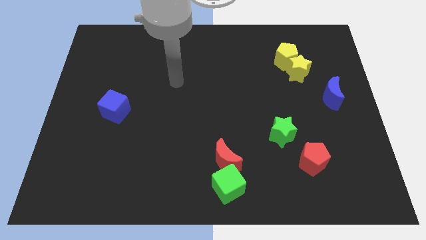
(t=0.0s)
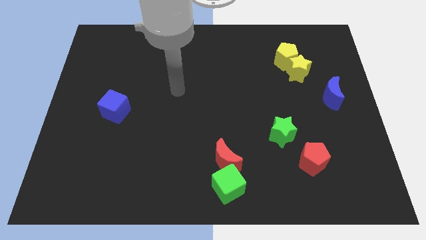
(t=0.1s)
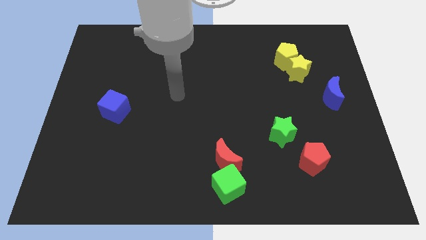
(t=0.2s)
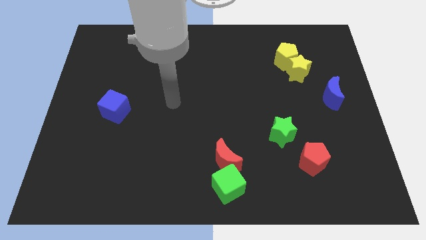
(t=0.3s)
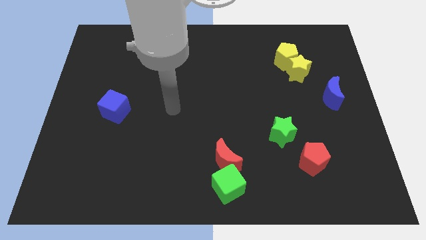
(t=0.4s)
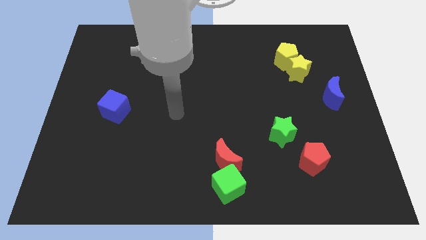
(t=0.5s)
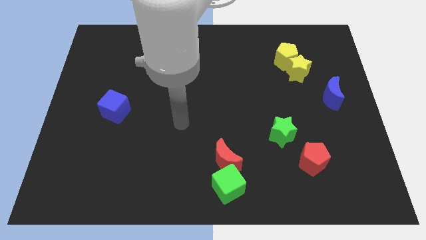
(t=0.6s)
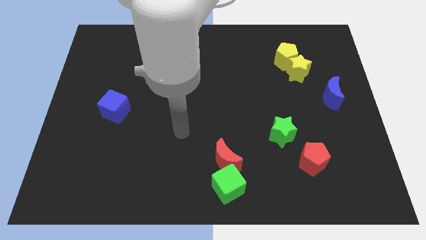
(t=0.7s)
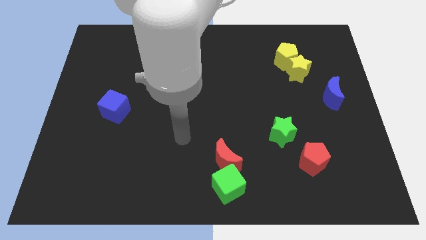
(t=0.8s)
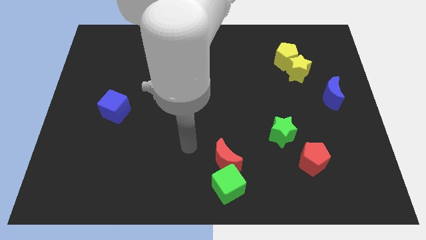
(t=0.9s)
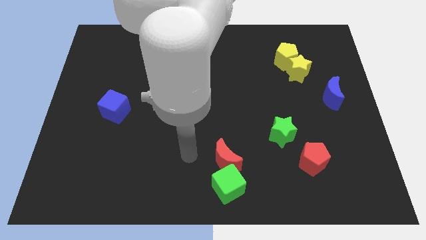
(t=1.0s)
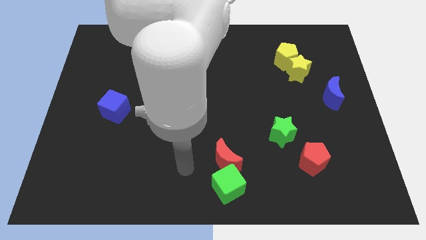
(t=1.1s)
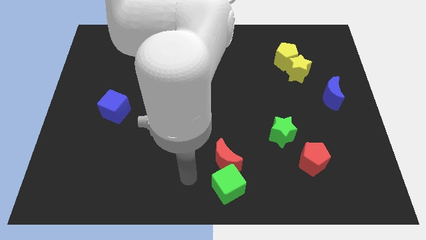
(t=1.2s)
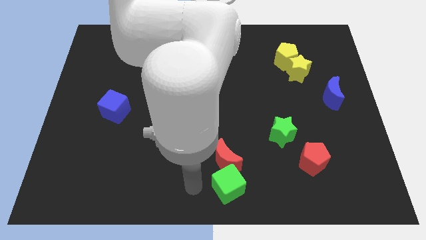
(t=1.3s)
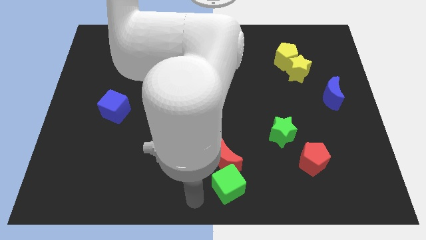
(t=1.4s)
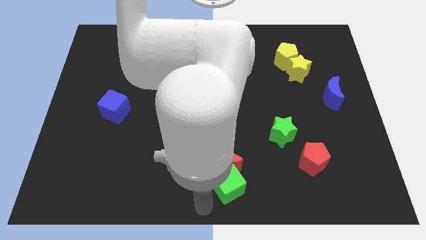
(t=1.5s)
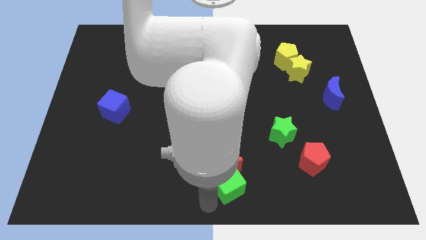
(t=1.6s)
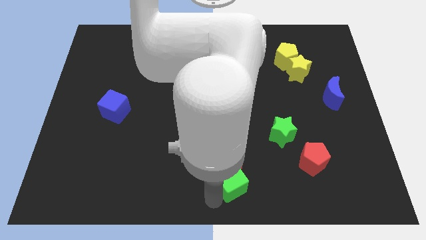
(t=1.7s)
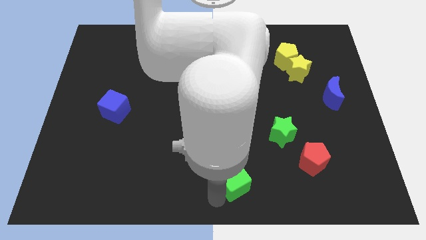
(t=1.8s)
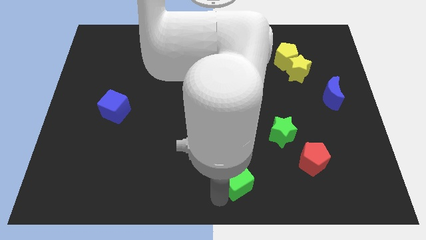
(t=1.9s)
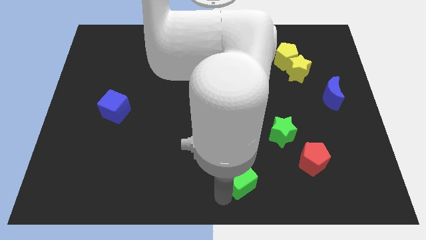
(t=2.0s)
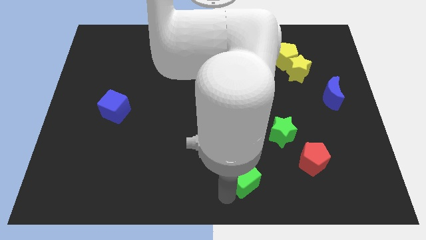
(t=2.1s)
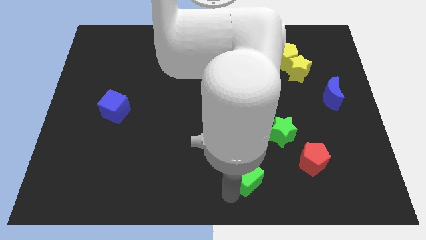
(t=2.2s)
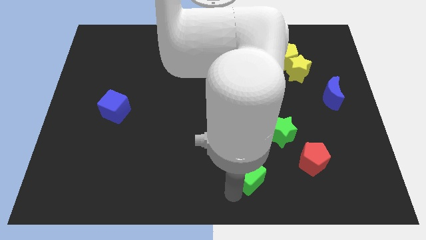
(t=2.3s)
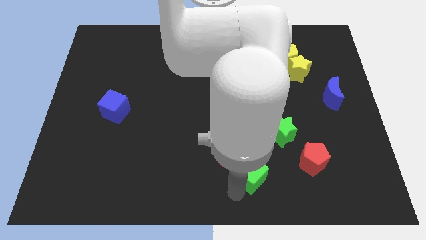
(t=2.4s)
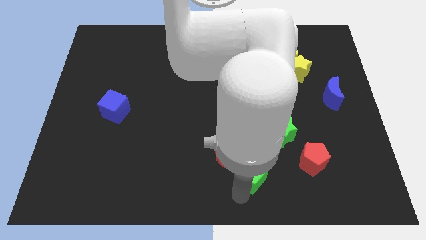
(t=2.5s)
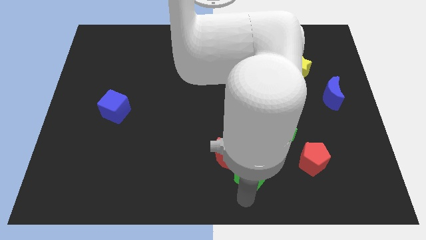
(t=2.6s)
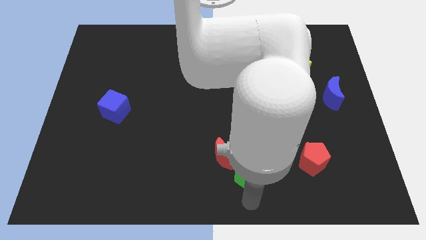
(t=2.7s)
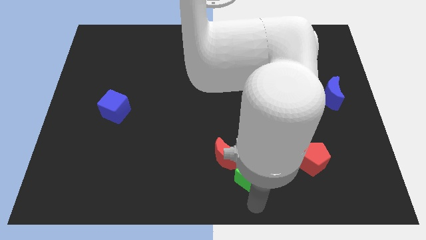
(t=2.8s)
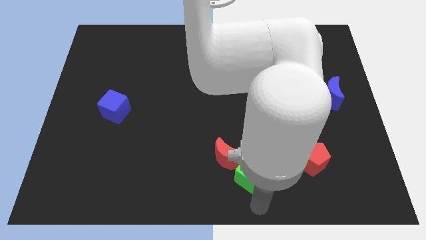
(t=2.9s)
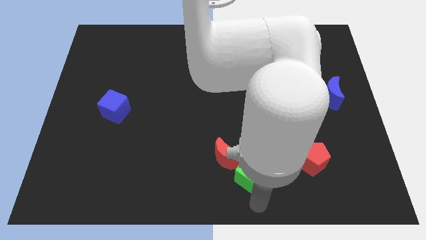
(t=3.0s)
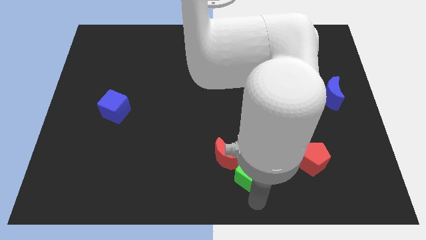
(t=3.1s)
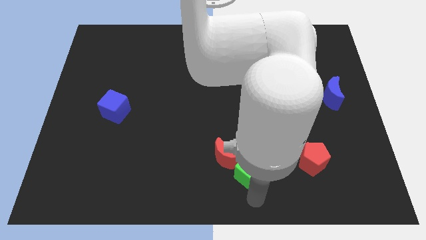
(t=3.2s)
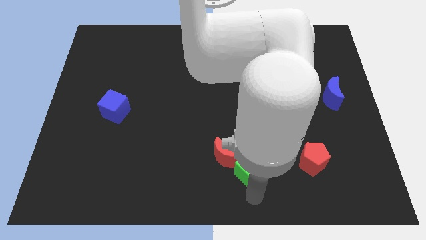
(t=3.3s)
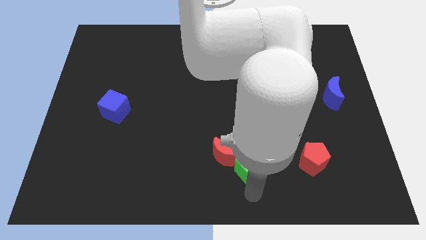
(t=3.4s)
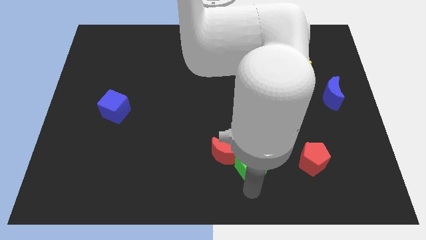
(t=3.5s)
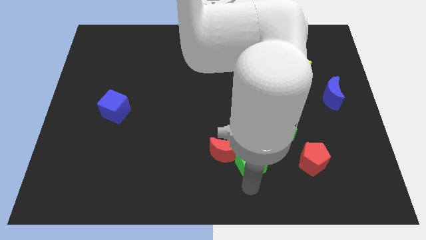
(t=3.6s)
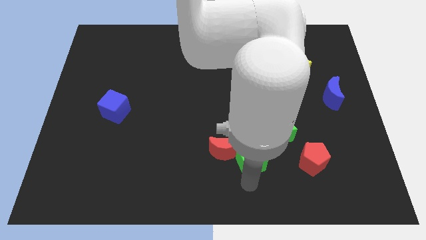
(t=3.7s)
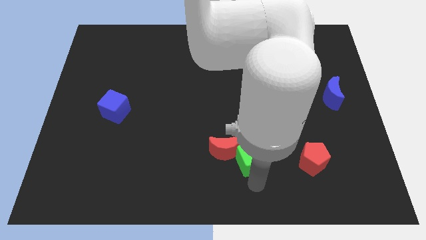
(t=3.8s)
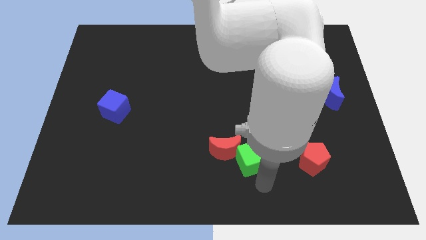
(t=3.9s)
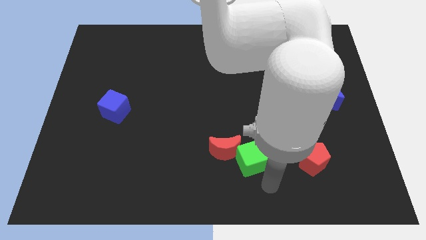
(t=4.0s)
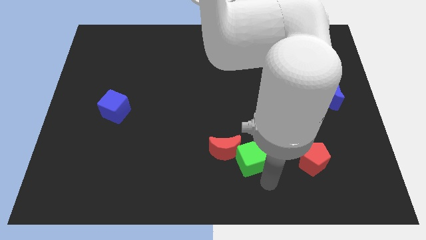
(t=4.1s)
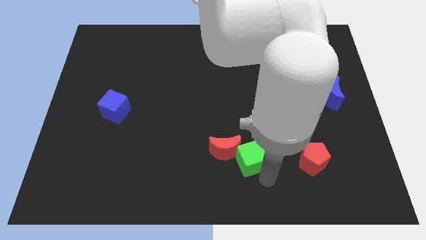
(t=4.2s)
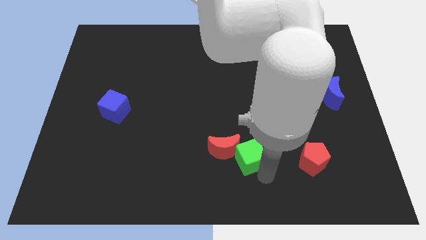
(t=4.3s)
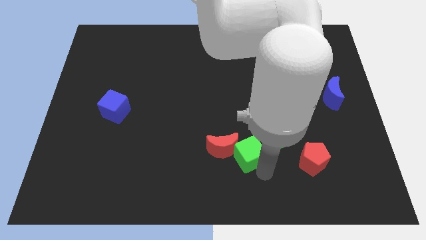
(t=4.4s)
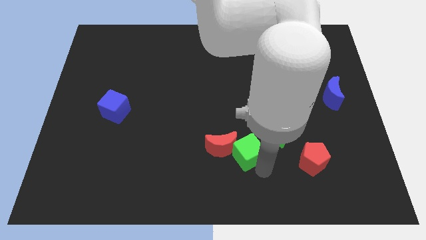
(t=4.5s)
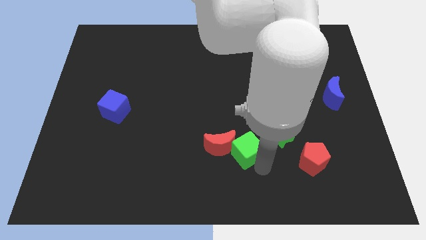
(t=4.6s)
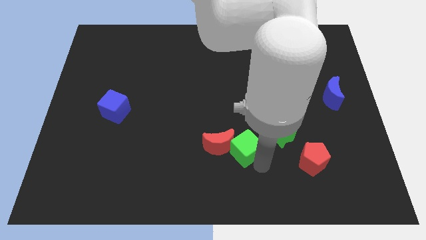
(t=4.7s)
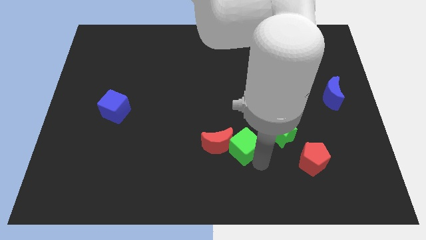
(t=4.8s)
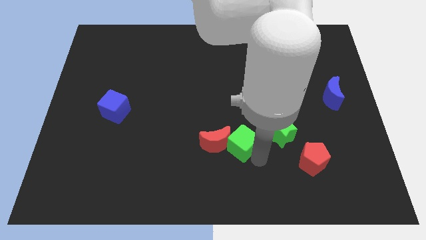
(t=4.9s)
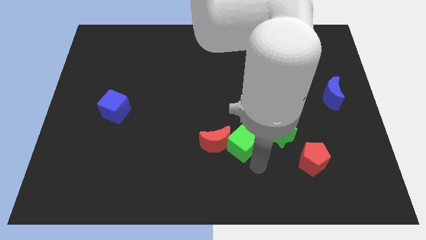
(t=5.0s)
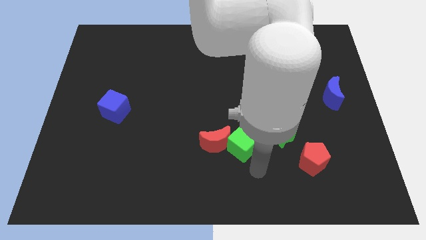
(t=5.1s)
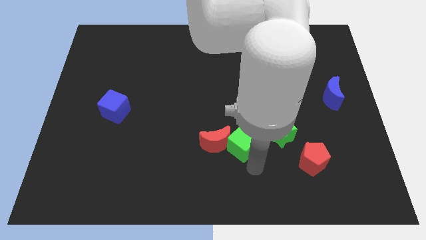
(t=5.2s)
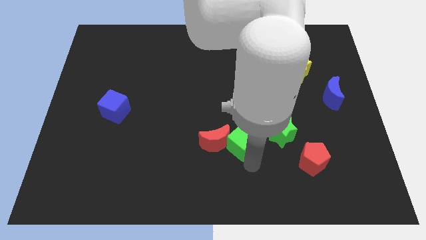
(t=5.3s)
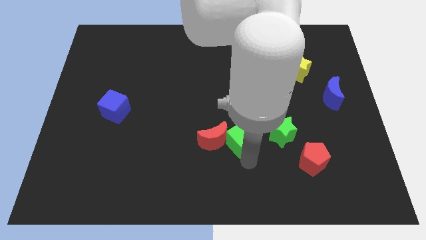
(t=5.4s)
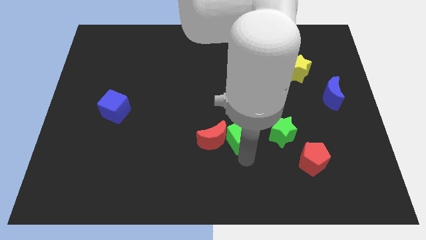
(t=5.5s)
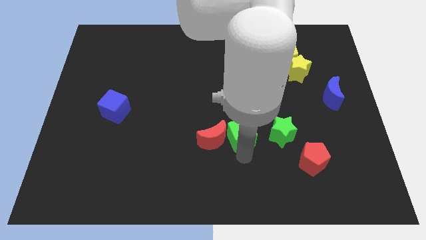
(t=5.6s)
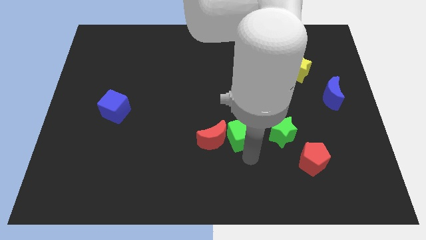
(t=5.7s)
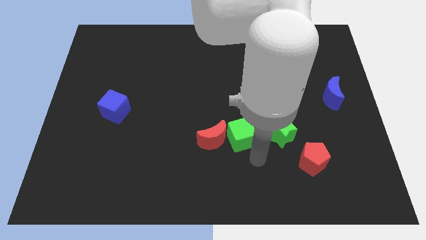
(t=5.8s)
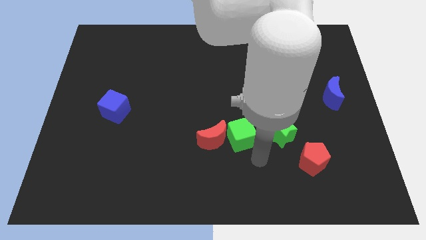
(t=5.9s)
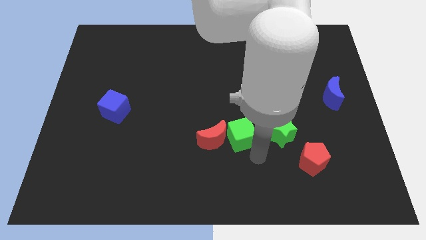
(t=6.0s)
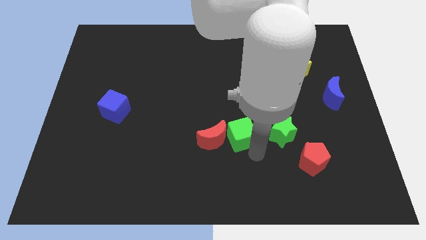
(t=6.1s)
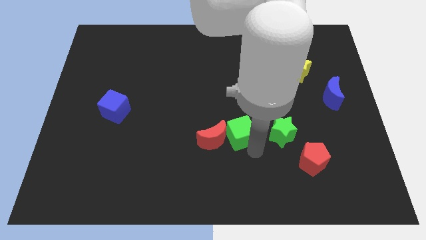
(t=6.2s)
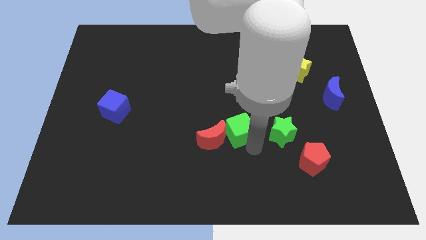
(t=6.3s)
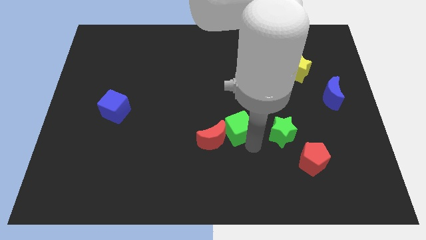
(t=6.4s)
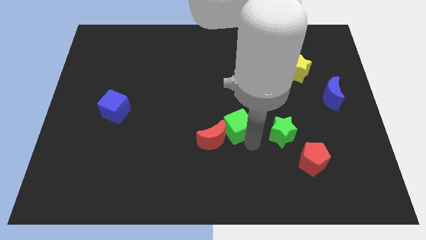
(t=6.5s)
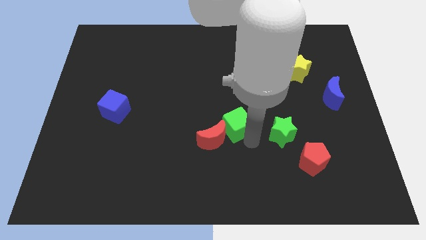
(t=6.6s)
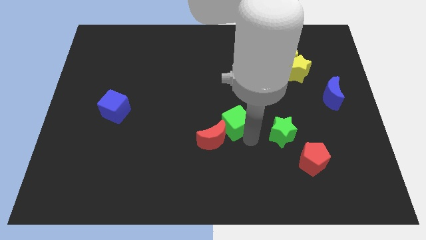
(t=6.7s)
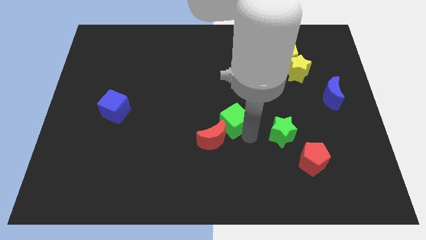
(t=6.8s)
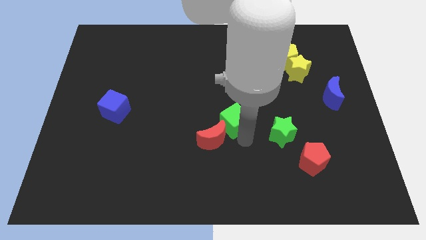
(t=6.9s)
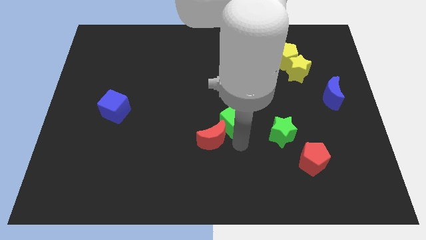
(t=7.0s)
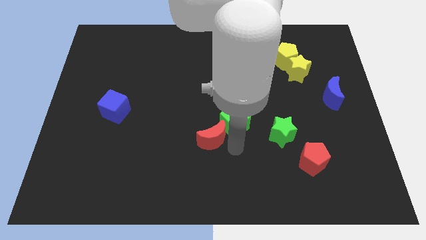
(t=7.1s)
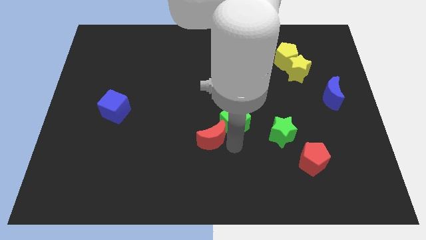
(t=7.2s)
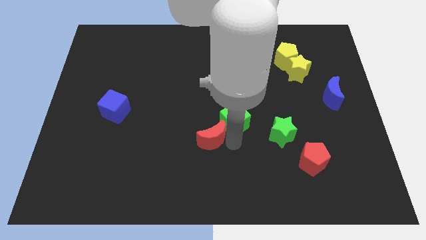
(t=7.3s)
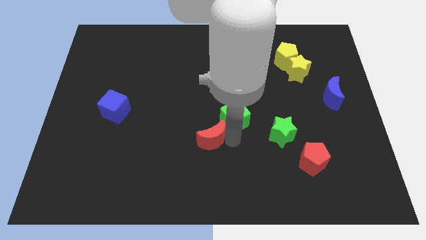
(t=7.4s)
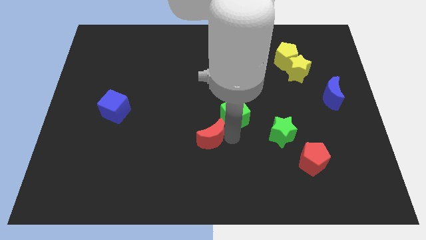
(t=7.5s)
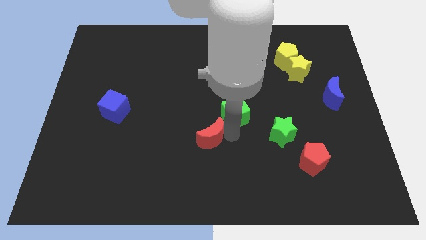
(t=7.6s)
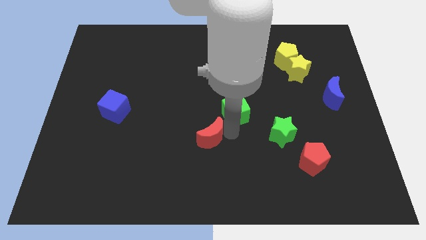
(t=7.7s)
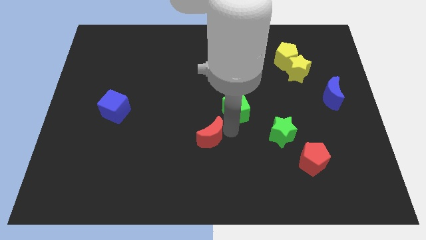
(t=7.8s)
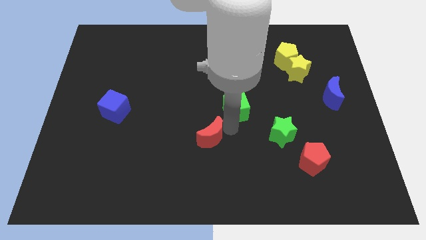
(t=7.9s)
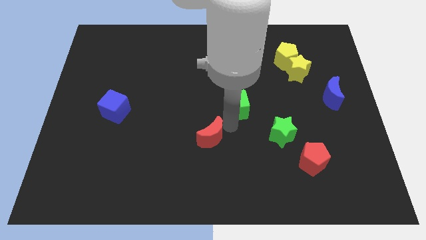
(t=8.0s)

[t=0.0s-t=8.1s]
push the green cube up
